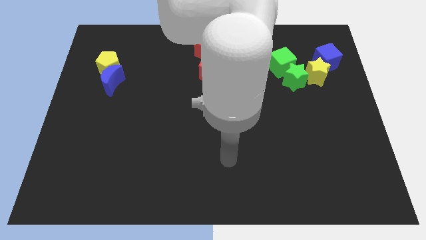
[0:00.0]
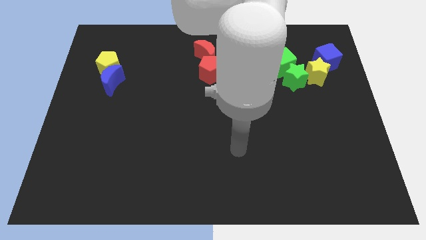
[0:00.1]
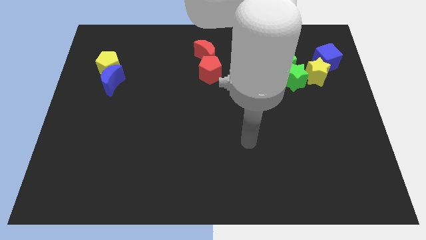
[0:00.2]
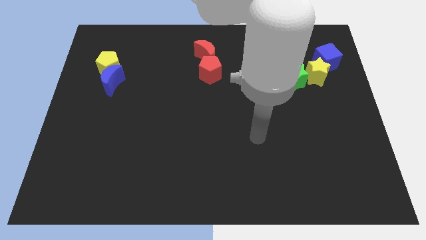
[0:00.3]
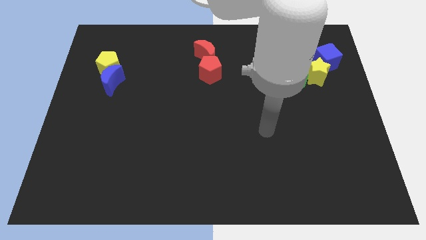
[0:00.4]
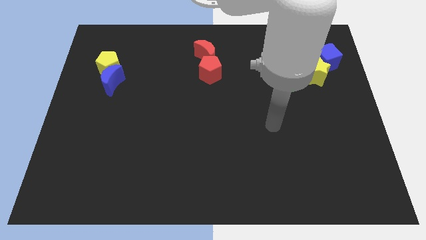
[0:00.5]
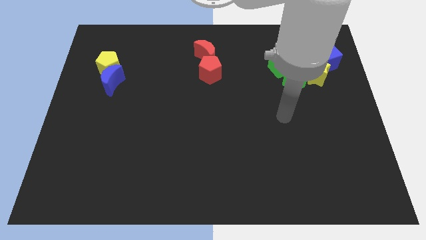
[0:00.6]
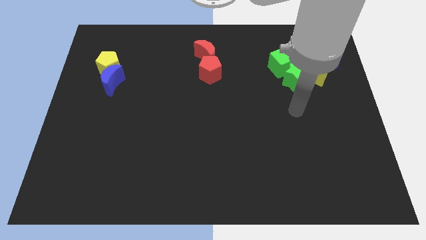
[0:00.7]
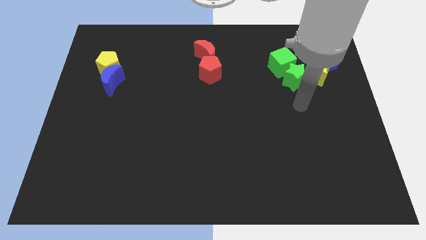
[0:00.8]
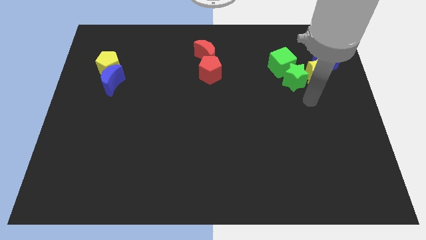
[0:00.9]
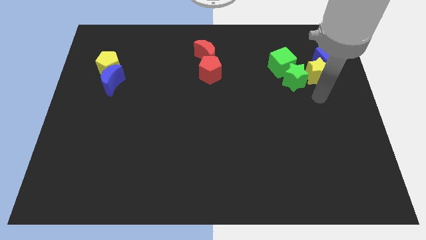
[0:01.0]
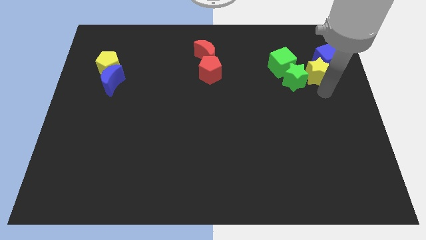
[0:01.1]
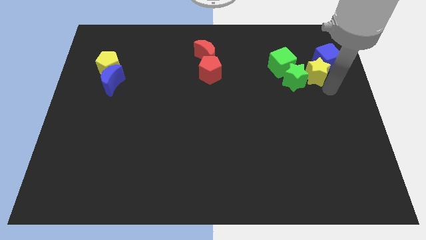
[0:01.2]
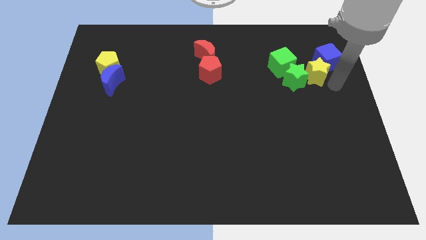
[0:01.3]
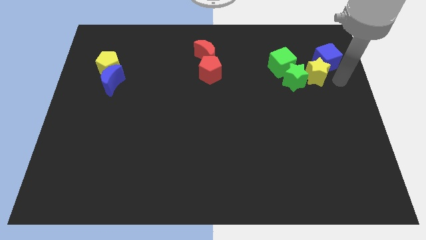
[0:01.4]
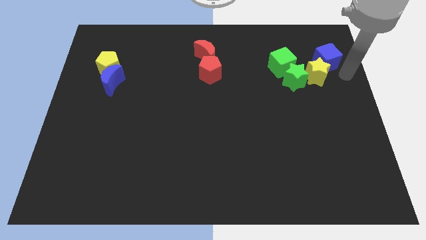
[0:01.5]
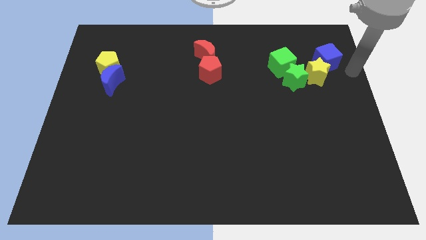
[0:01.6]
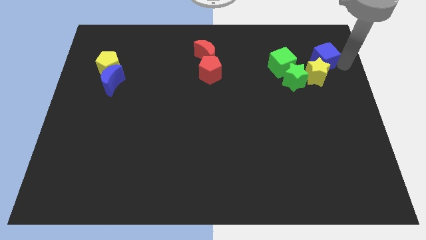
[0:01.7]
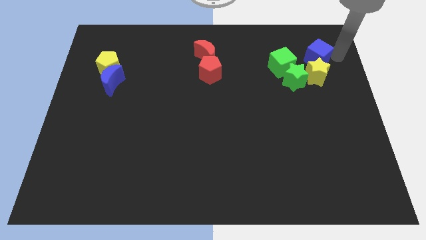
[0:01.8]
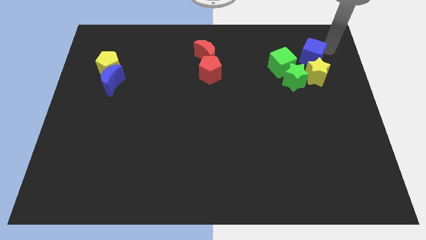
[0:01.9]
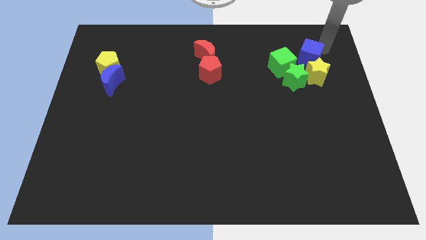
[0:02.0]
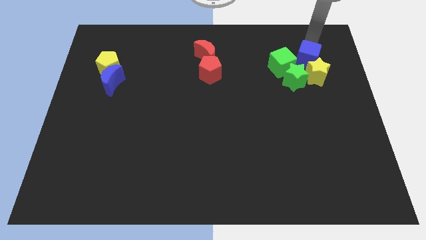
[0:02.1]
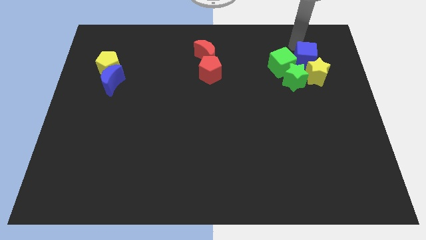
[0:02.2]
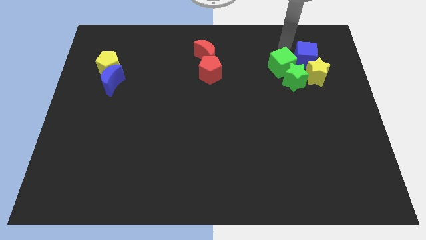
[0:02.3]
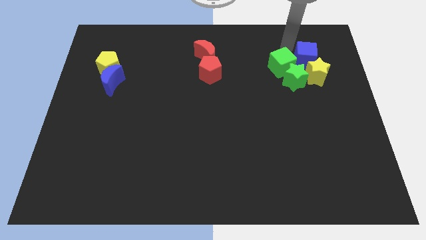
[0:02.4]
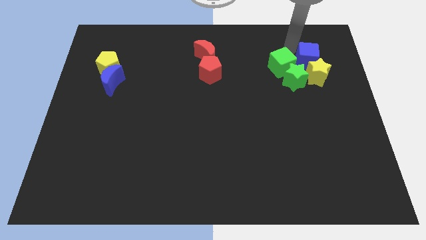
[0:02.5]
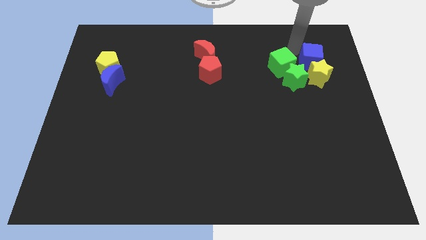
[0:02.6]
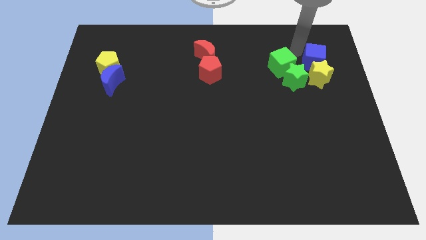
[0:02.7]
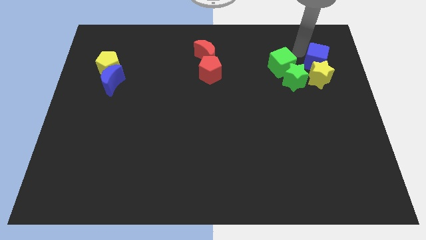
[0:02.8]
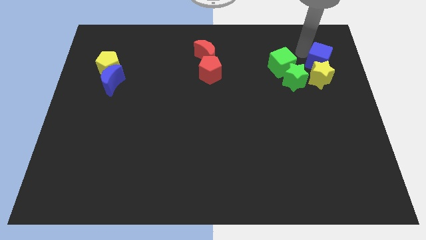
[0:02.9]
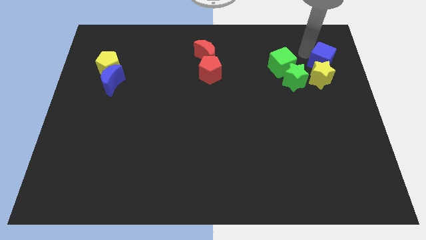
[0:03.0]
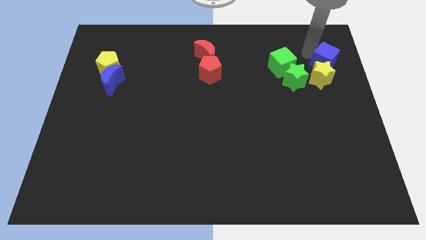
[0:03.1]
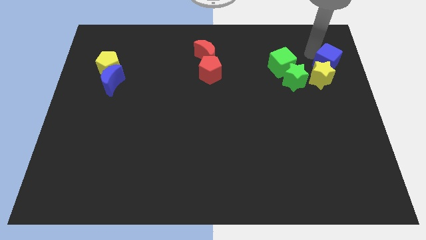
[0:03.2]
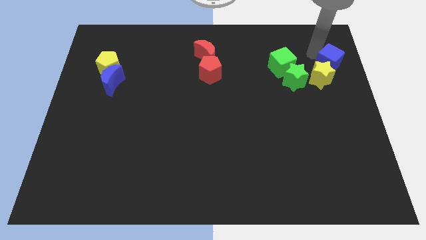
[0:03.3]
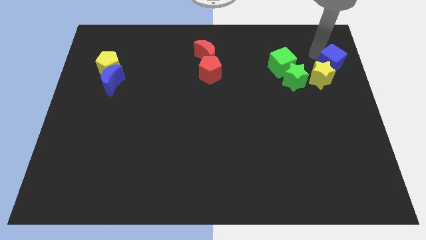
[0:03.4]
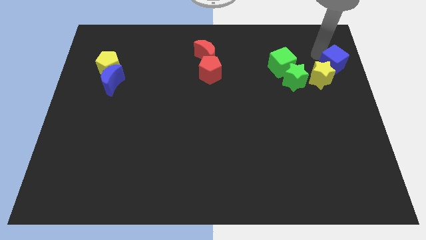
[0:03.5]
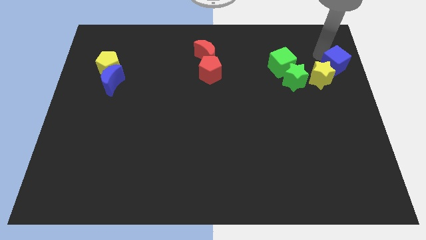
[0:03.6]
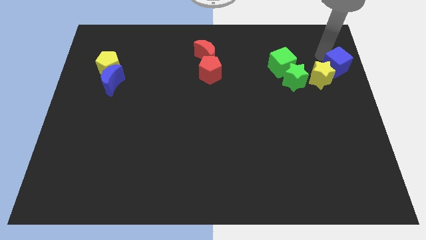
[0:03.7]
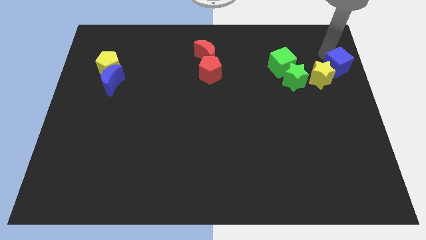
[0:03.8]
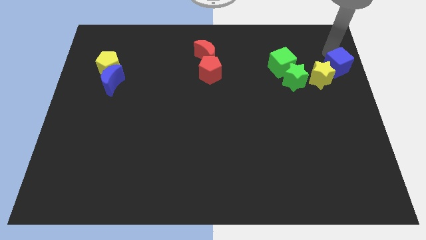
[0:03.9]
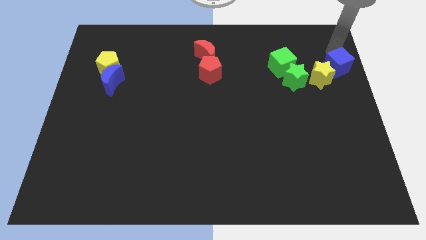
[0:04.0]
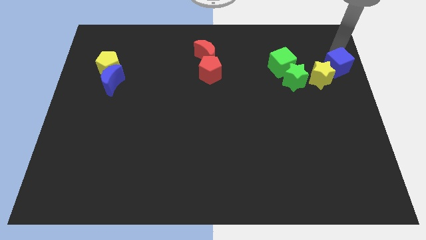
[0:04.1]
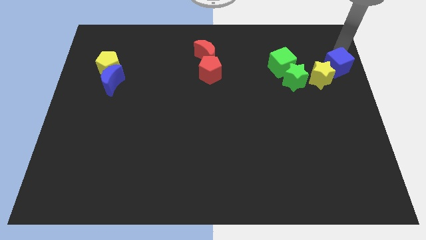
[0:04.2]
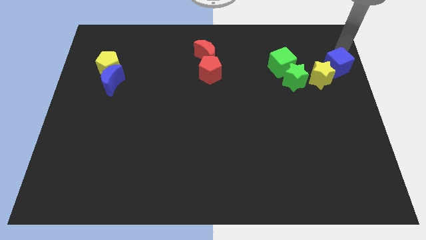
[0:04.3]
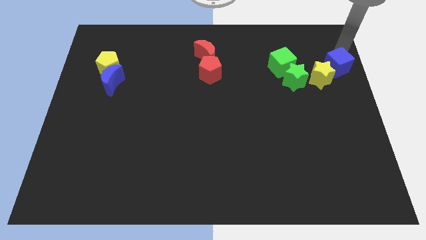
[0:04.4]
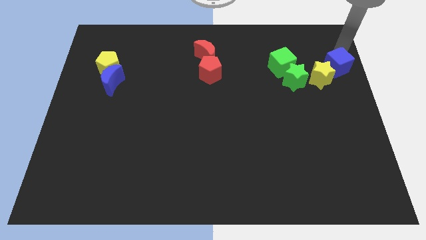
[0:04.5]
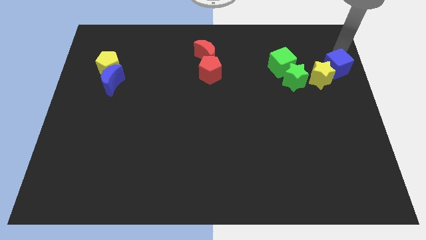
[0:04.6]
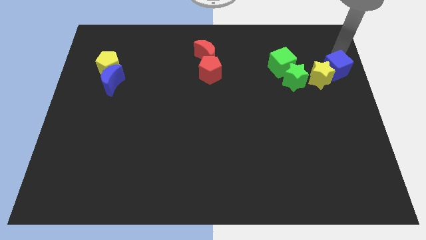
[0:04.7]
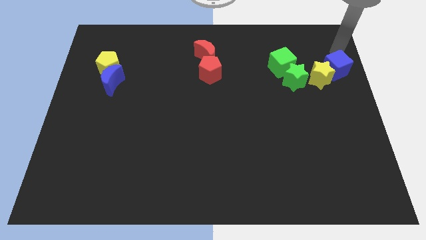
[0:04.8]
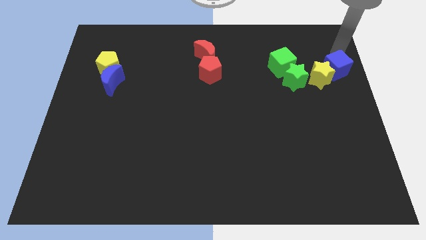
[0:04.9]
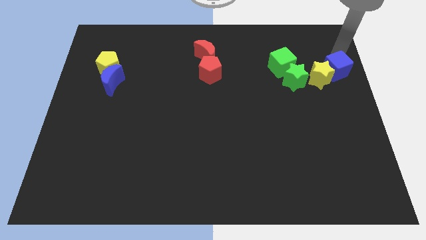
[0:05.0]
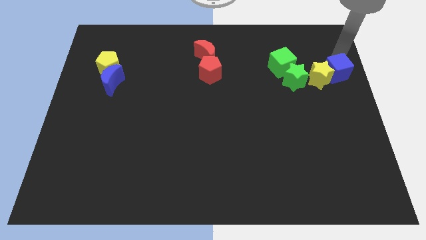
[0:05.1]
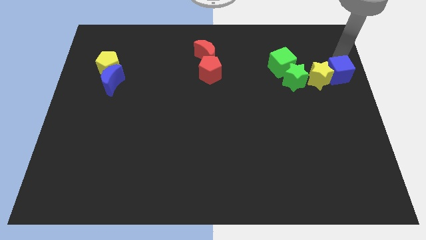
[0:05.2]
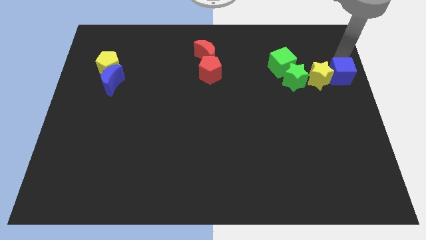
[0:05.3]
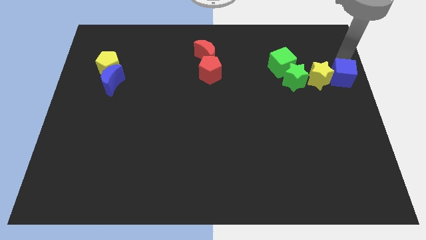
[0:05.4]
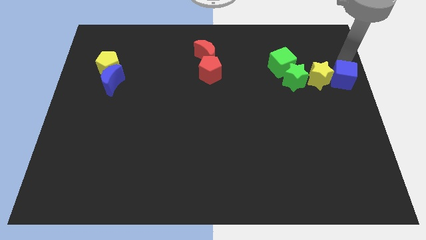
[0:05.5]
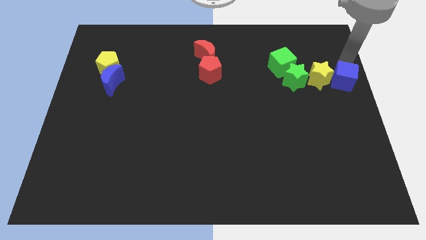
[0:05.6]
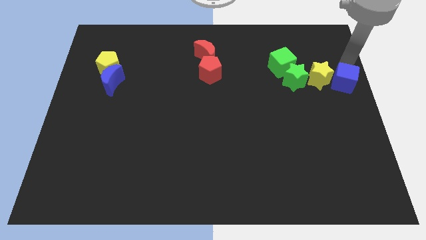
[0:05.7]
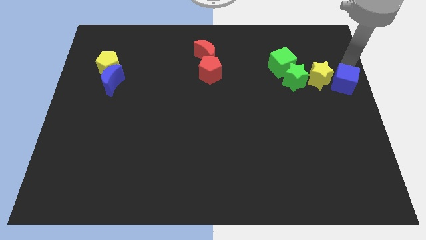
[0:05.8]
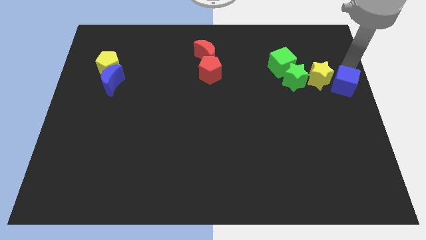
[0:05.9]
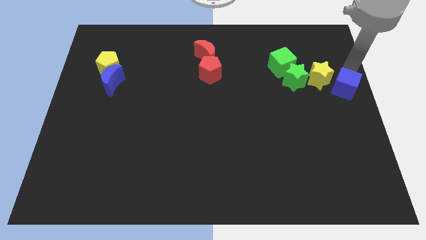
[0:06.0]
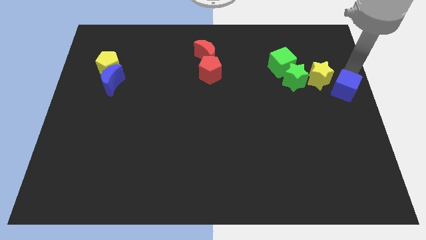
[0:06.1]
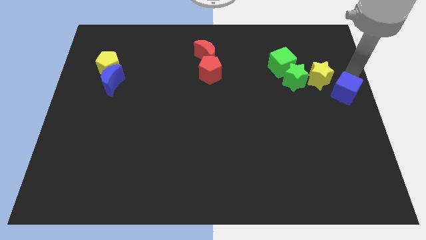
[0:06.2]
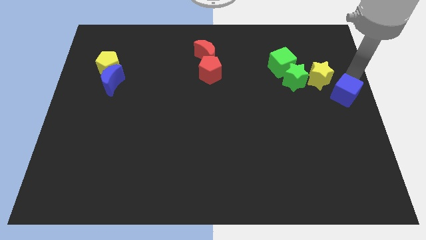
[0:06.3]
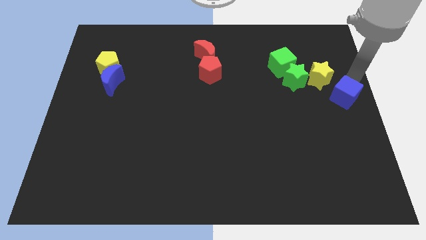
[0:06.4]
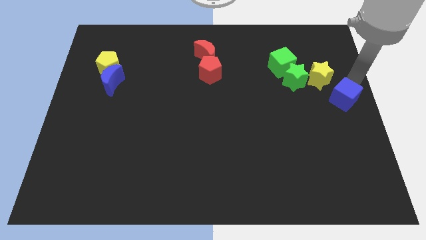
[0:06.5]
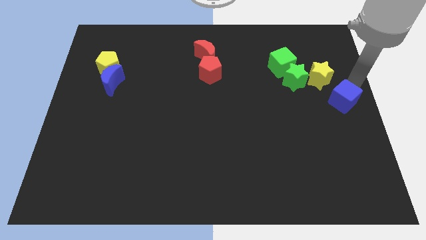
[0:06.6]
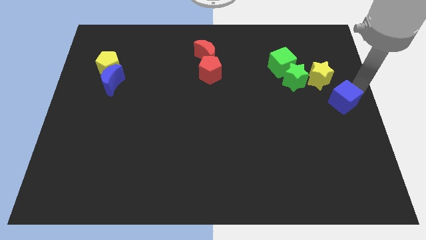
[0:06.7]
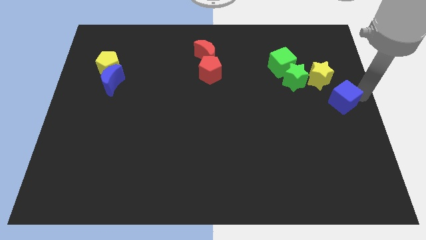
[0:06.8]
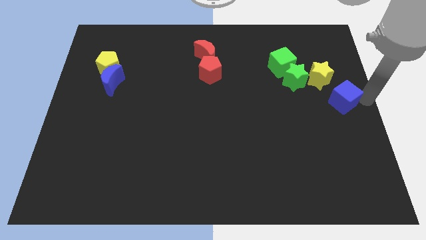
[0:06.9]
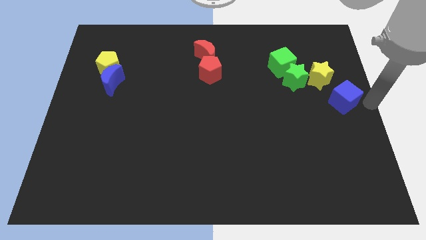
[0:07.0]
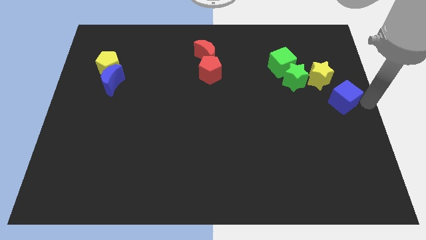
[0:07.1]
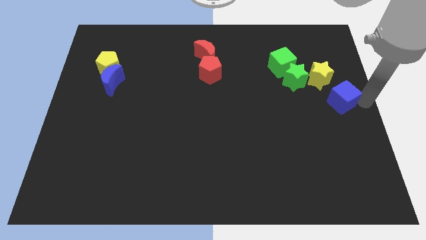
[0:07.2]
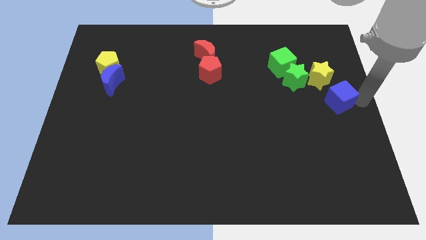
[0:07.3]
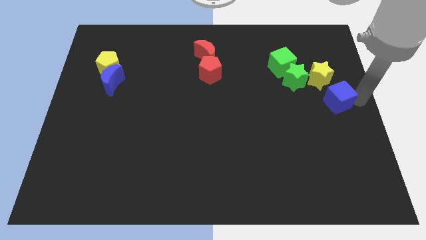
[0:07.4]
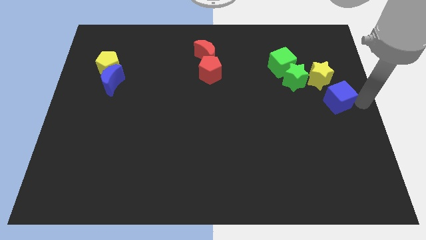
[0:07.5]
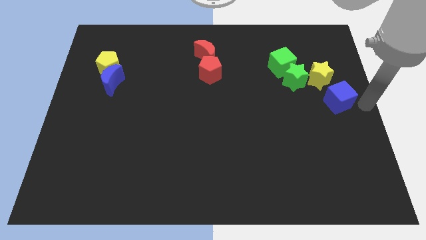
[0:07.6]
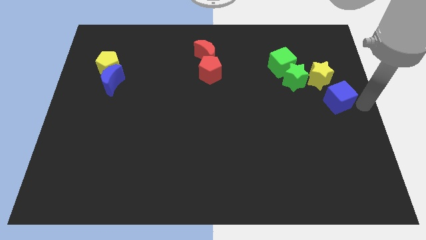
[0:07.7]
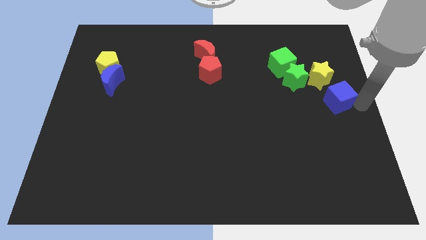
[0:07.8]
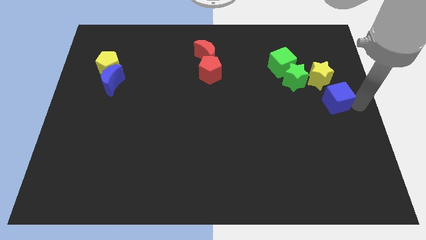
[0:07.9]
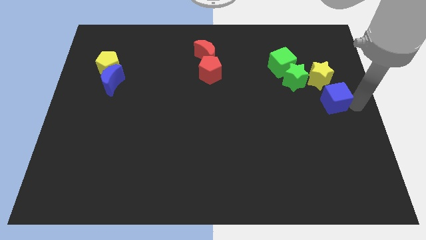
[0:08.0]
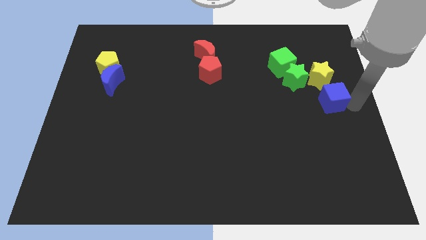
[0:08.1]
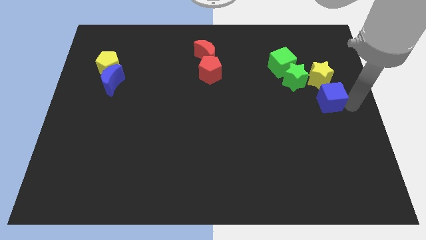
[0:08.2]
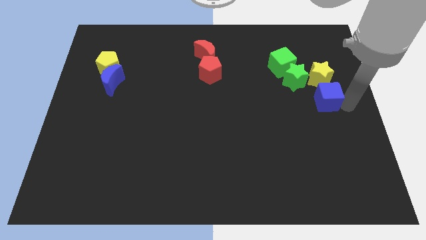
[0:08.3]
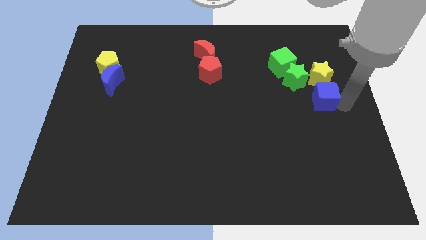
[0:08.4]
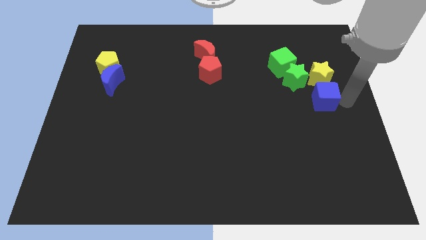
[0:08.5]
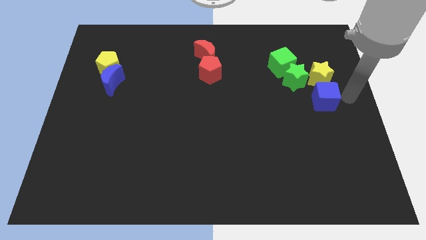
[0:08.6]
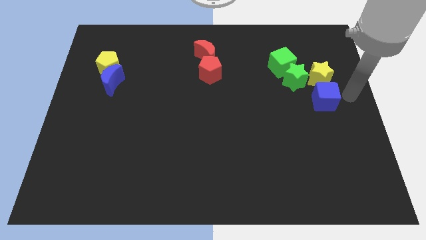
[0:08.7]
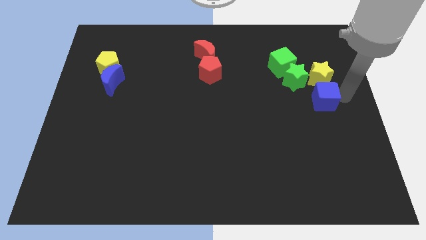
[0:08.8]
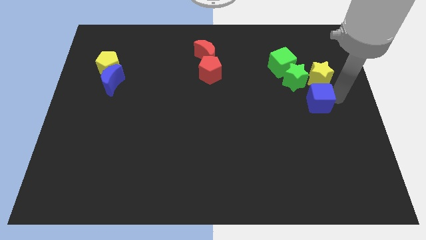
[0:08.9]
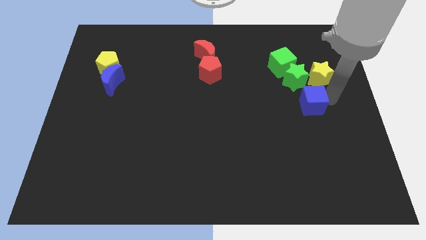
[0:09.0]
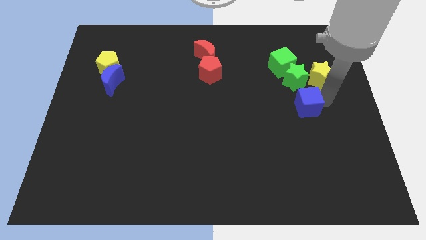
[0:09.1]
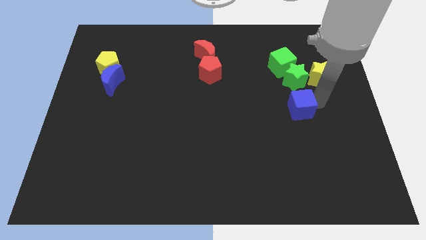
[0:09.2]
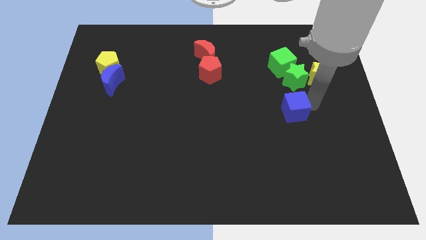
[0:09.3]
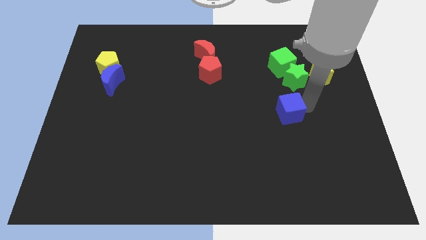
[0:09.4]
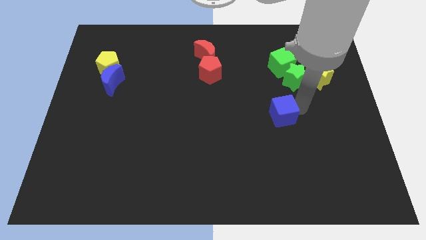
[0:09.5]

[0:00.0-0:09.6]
slide the blue cube down and left
